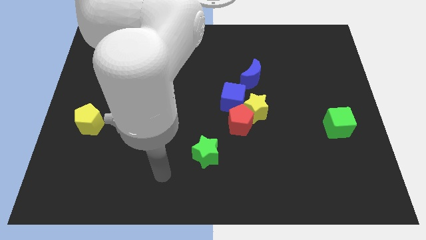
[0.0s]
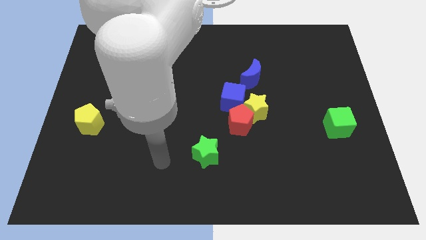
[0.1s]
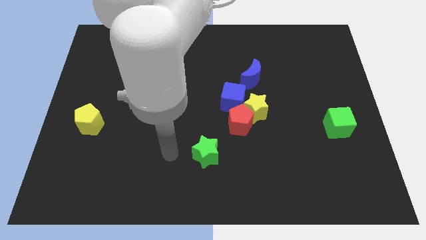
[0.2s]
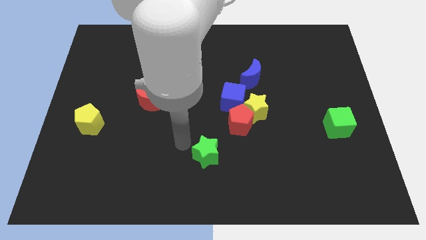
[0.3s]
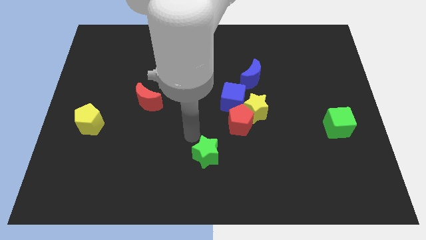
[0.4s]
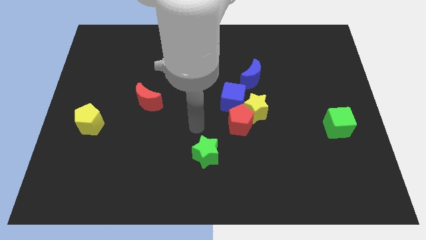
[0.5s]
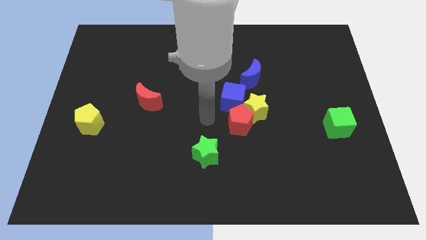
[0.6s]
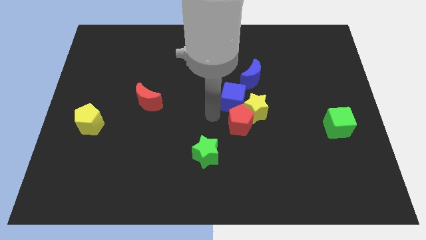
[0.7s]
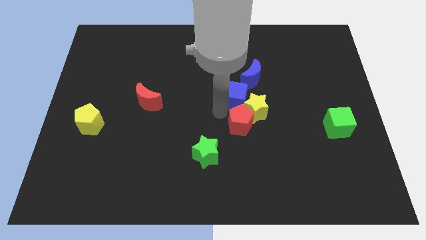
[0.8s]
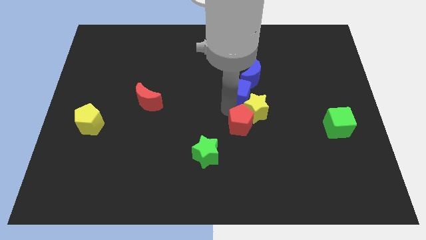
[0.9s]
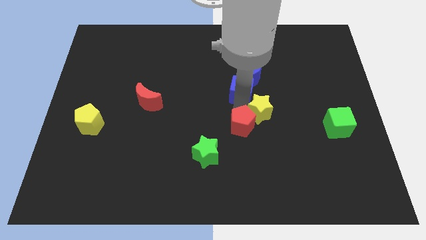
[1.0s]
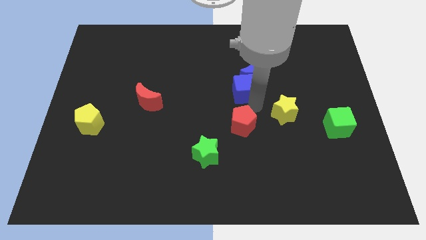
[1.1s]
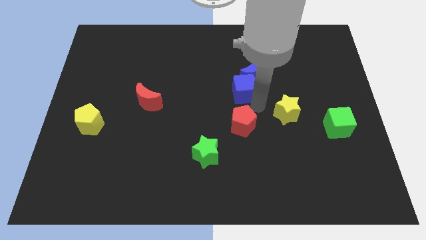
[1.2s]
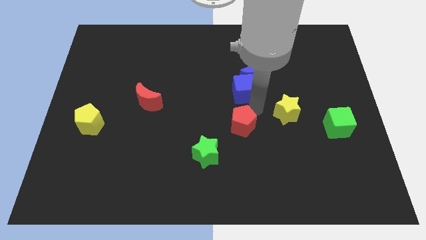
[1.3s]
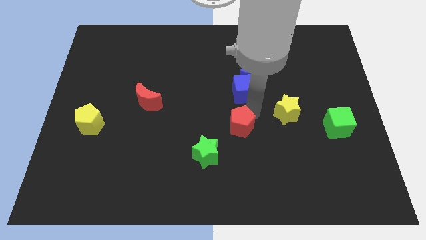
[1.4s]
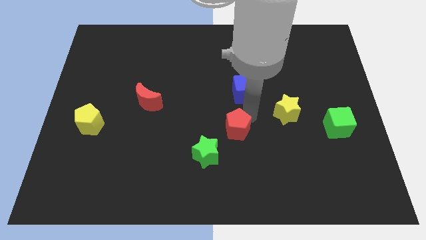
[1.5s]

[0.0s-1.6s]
pull the red pentagon apart from the yellow star and blue cube

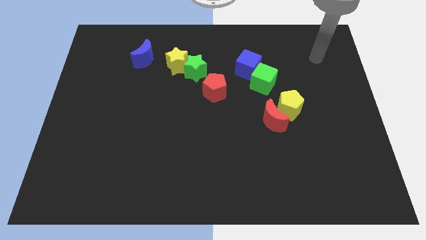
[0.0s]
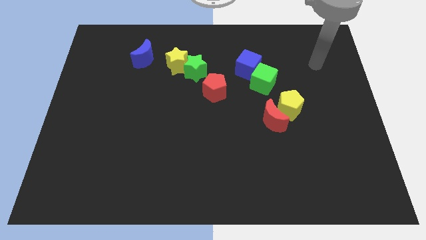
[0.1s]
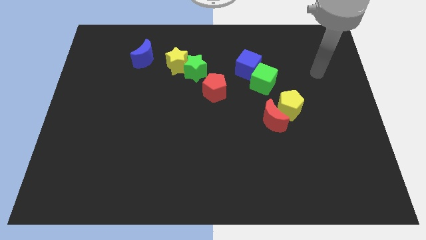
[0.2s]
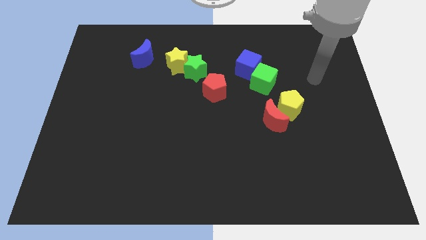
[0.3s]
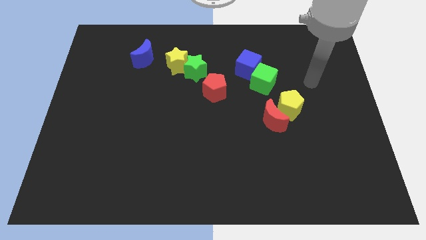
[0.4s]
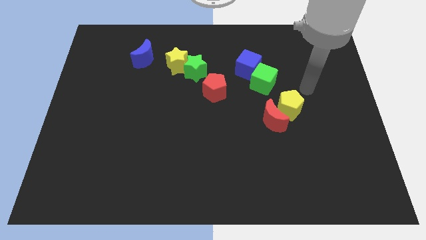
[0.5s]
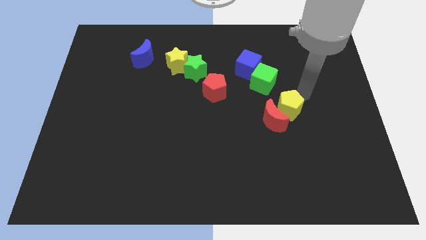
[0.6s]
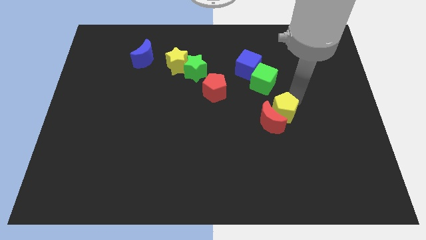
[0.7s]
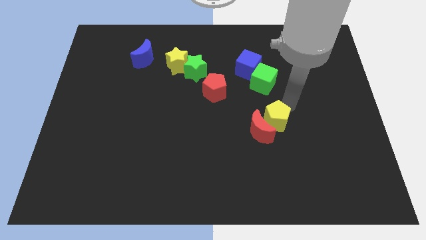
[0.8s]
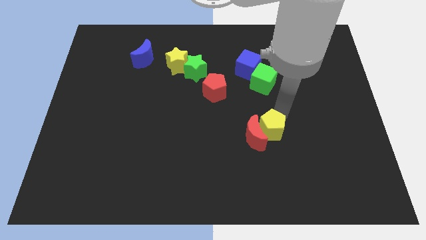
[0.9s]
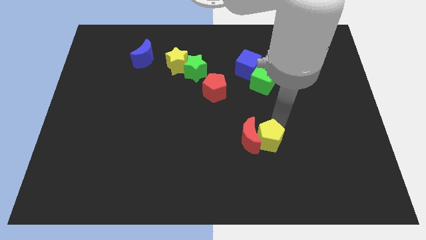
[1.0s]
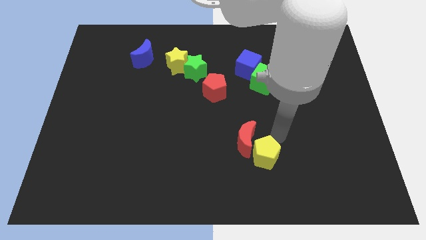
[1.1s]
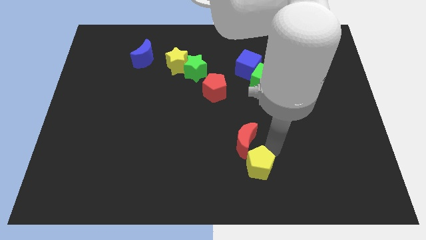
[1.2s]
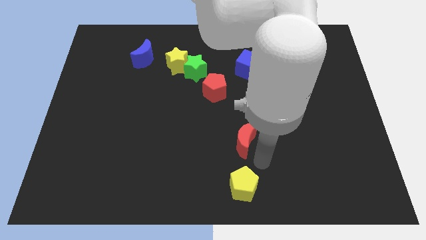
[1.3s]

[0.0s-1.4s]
move the red moon away from the yellow pentagon

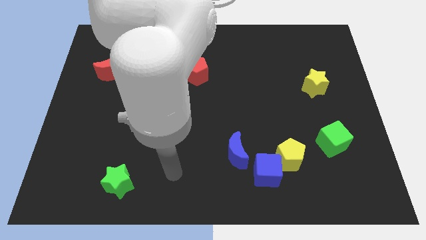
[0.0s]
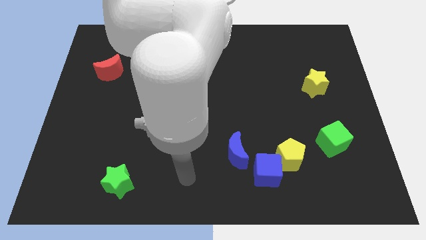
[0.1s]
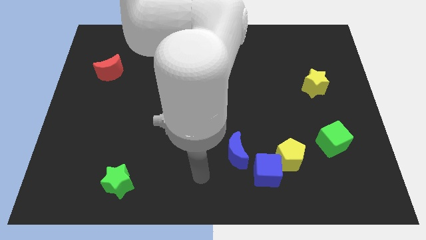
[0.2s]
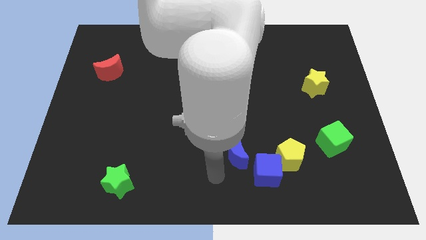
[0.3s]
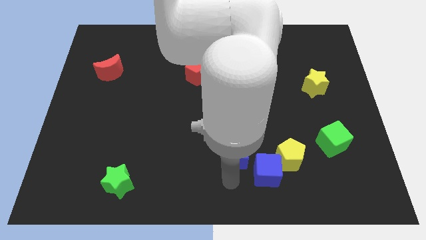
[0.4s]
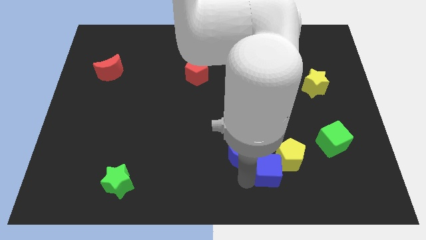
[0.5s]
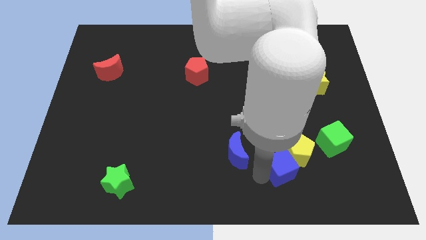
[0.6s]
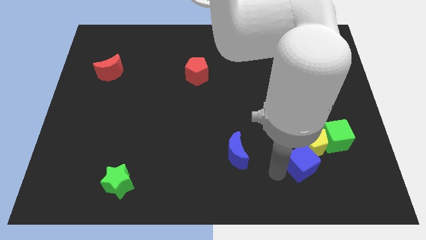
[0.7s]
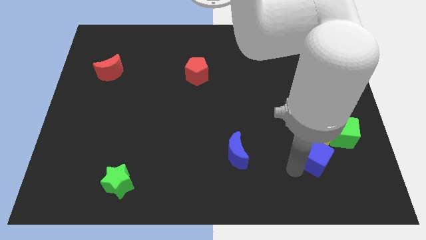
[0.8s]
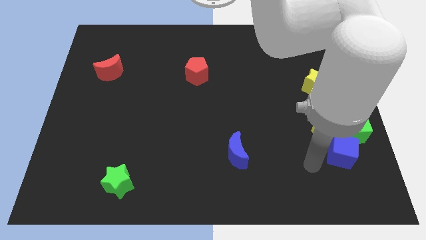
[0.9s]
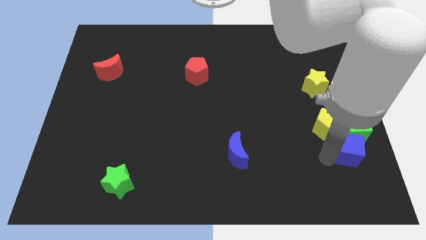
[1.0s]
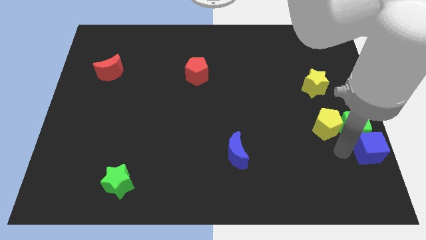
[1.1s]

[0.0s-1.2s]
pull the yellow pentagon apart from the blue cube

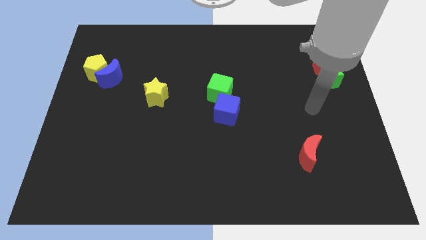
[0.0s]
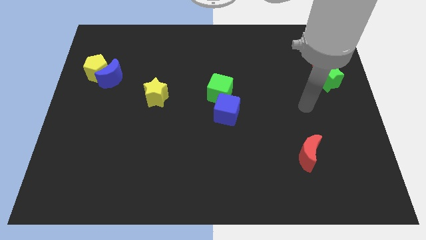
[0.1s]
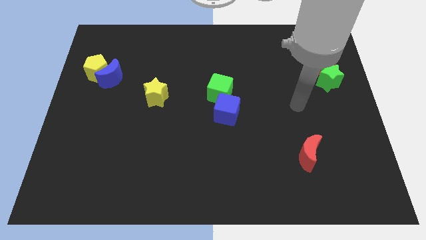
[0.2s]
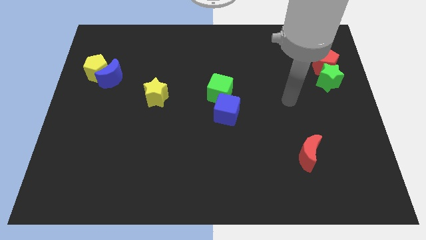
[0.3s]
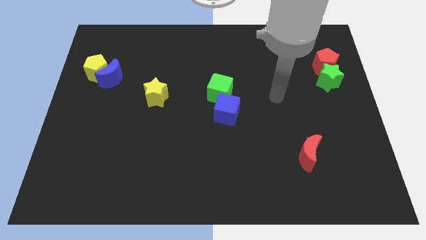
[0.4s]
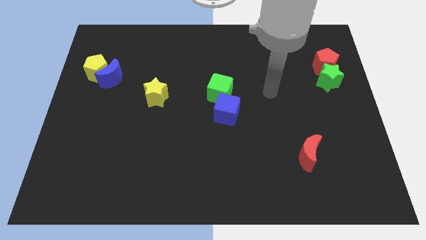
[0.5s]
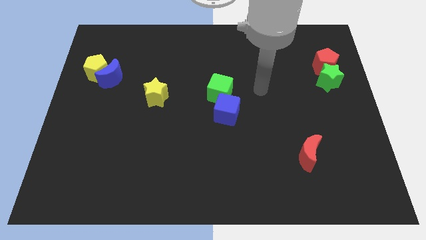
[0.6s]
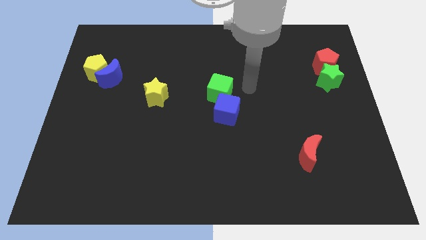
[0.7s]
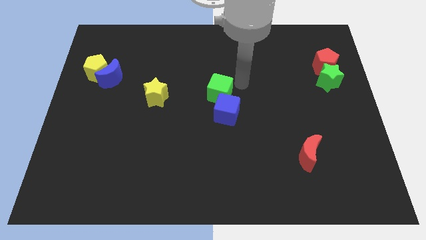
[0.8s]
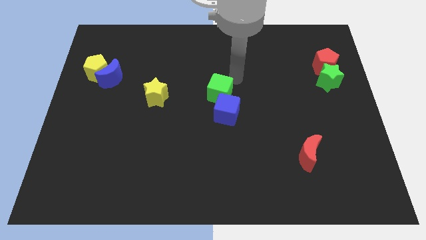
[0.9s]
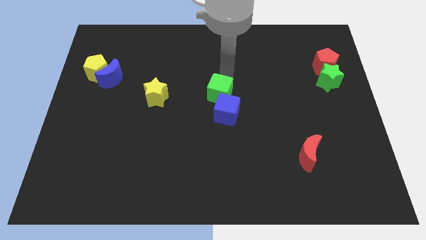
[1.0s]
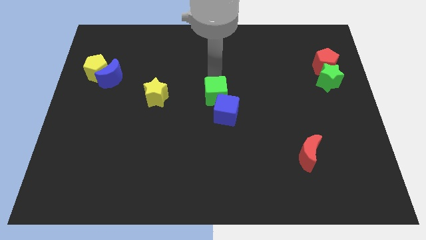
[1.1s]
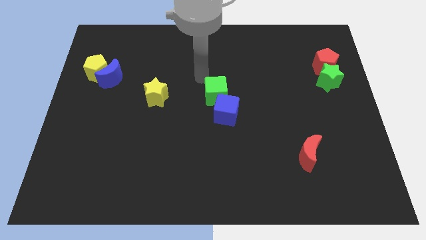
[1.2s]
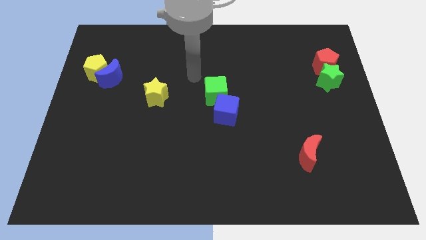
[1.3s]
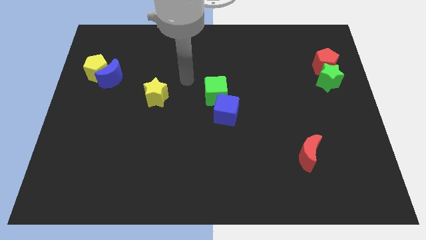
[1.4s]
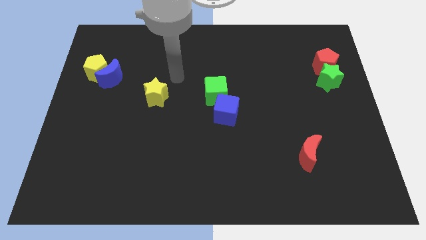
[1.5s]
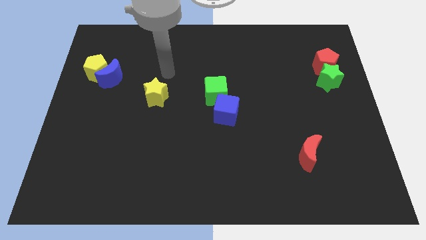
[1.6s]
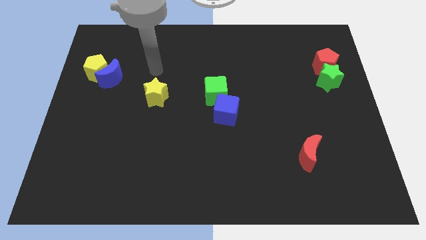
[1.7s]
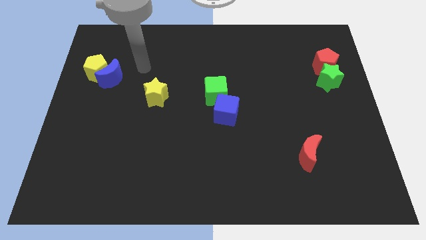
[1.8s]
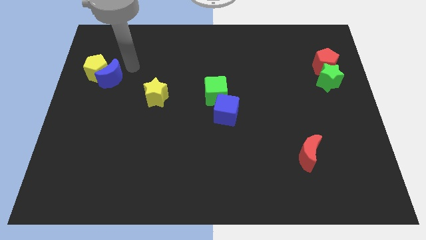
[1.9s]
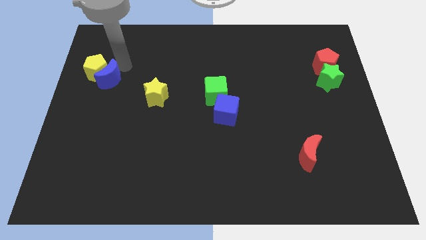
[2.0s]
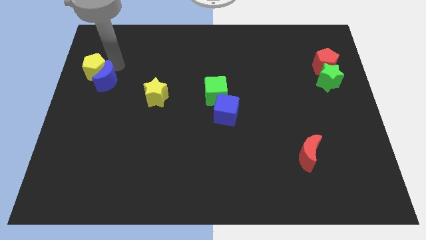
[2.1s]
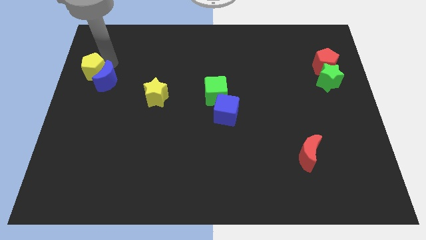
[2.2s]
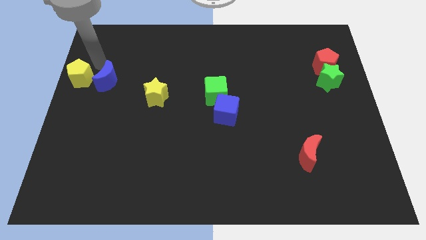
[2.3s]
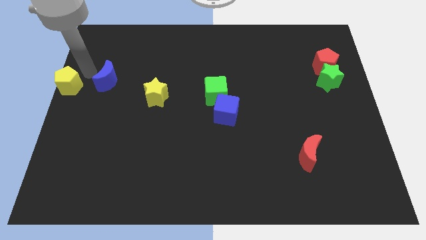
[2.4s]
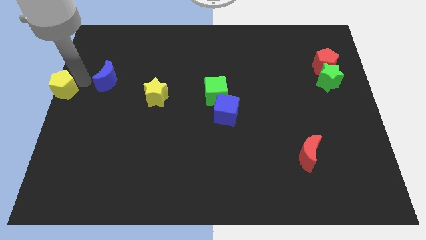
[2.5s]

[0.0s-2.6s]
move the blue moon away from the yellow pentagon

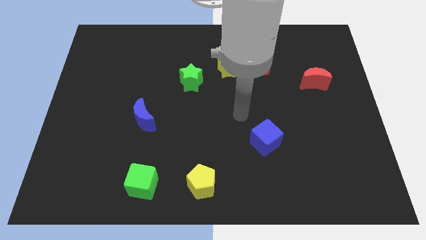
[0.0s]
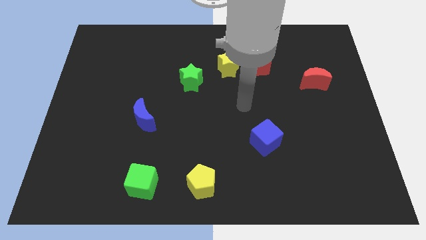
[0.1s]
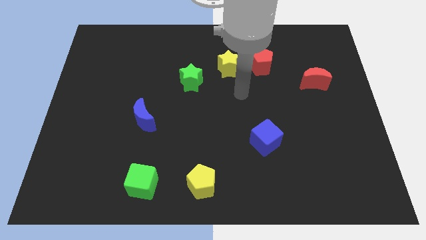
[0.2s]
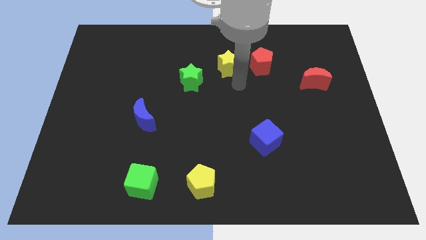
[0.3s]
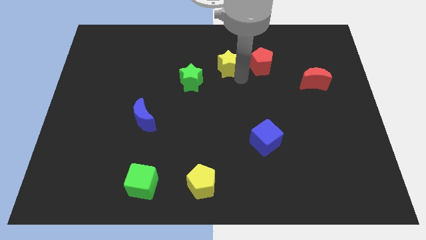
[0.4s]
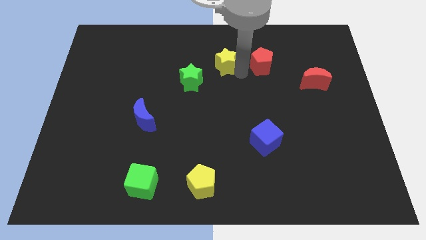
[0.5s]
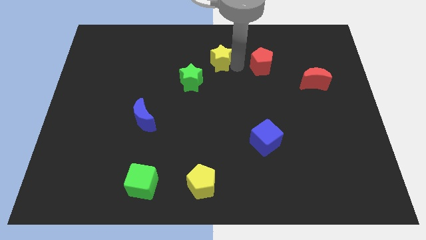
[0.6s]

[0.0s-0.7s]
separate the red pentagon from the yellow star

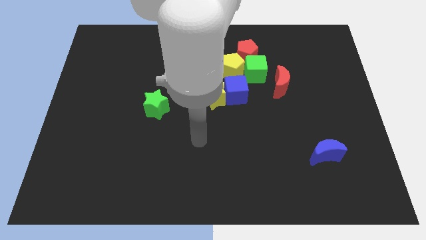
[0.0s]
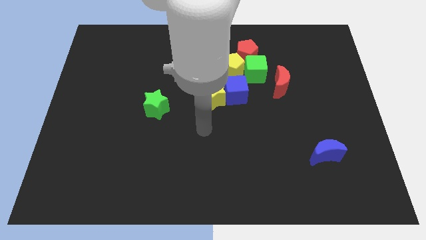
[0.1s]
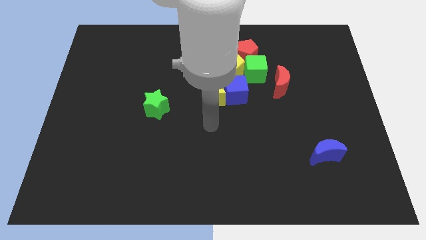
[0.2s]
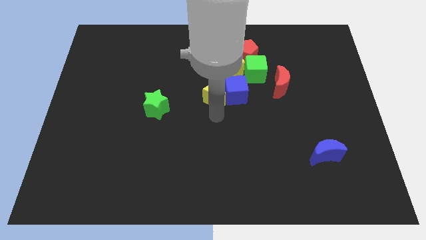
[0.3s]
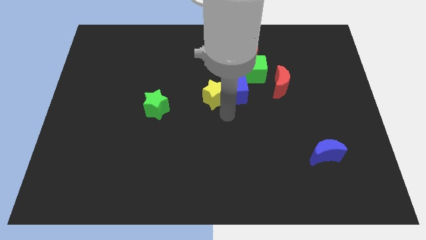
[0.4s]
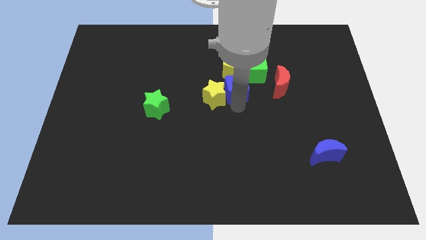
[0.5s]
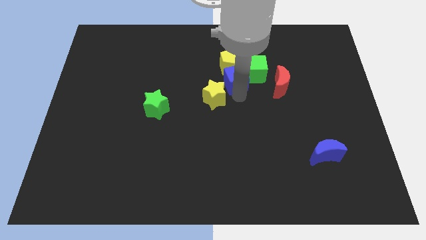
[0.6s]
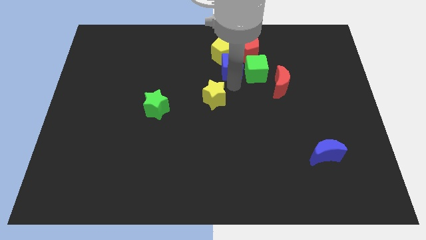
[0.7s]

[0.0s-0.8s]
separate the yellow star from the blue cube

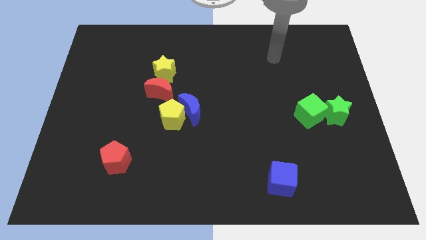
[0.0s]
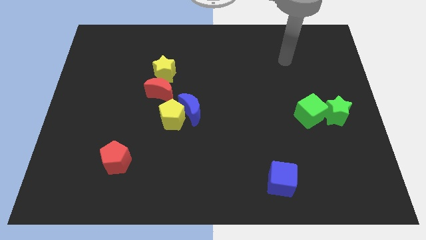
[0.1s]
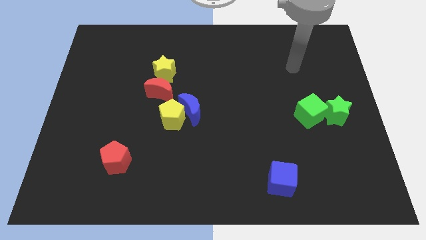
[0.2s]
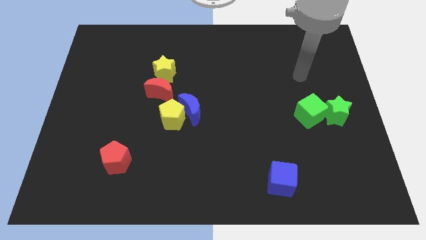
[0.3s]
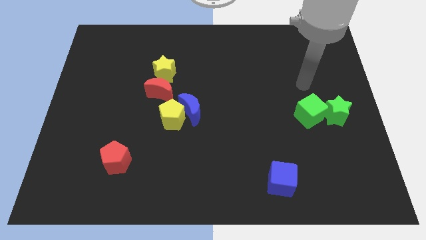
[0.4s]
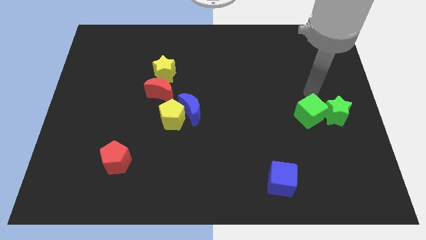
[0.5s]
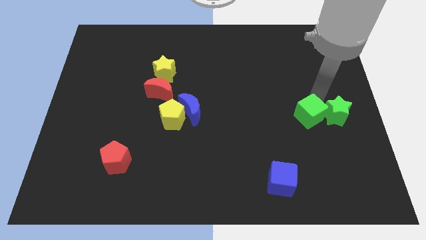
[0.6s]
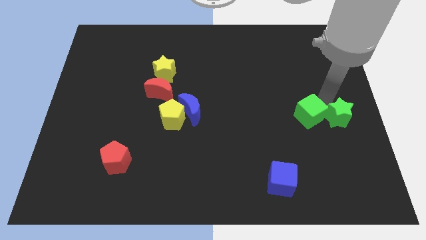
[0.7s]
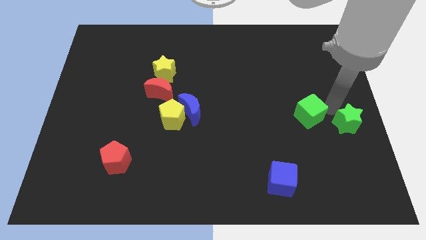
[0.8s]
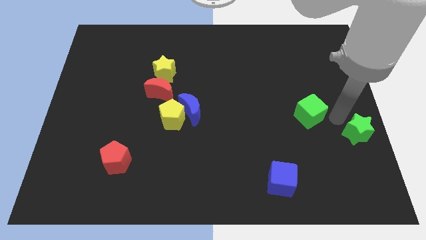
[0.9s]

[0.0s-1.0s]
move the green cube away from the green star
